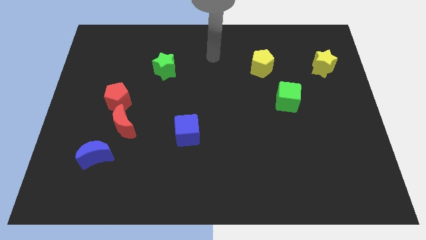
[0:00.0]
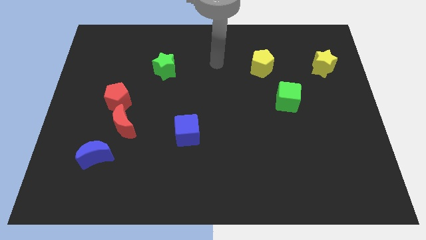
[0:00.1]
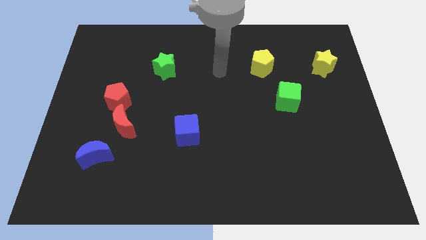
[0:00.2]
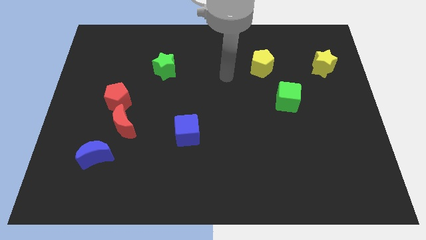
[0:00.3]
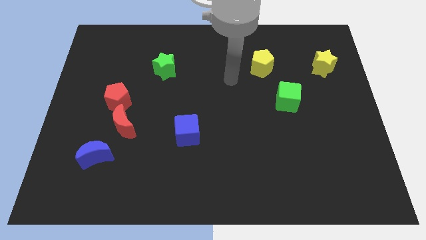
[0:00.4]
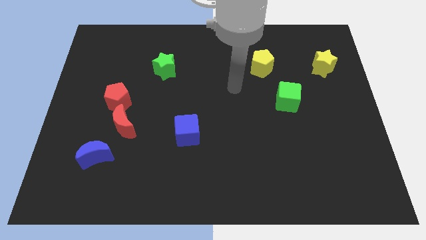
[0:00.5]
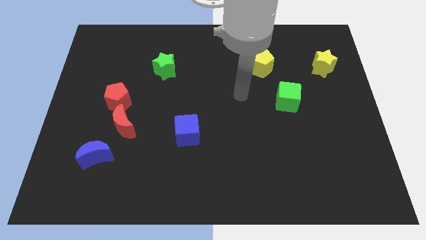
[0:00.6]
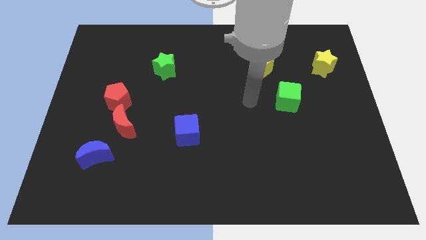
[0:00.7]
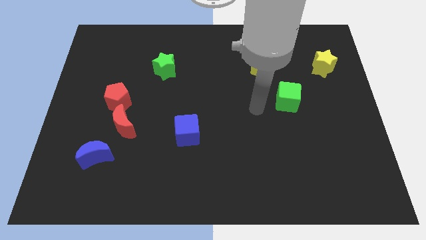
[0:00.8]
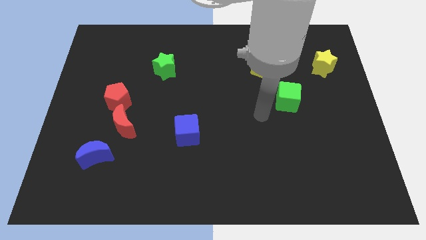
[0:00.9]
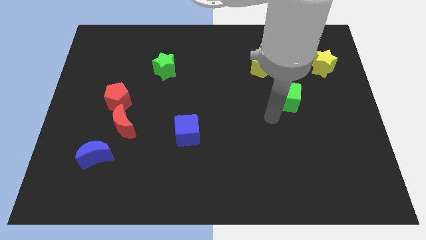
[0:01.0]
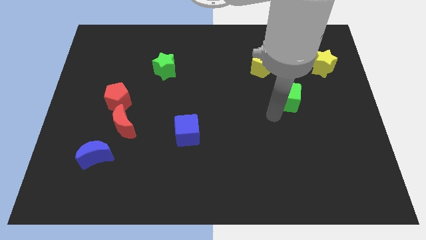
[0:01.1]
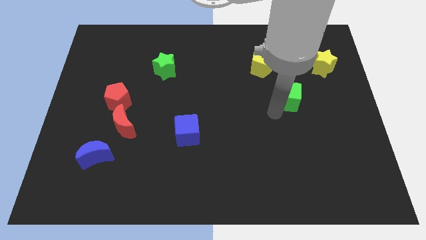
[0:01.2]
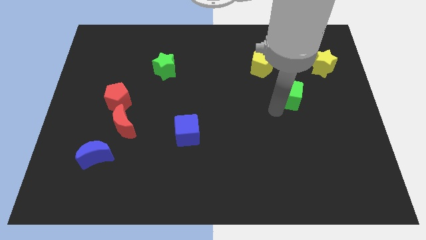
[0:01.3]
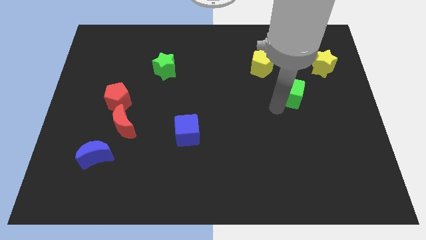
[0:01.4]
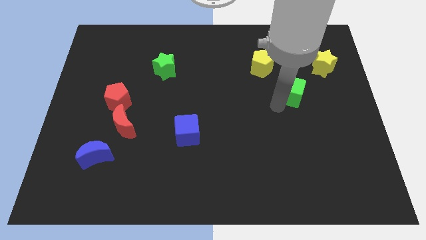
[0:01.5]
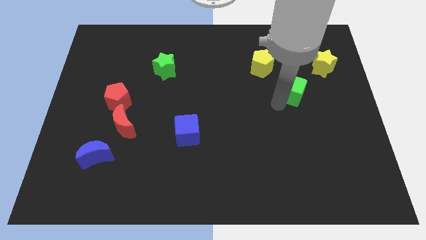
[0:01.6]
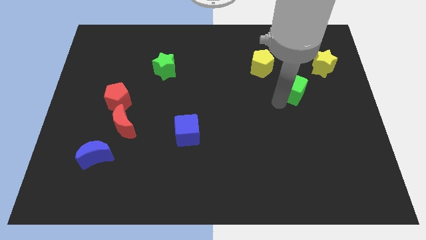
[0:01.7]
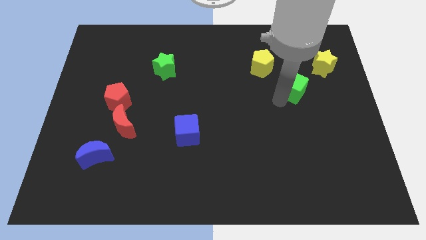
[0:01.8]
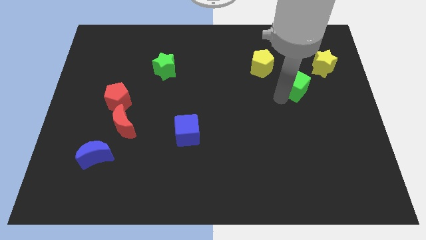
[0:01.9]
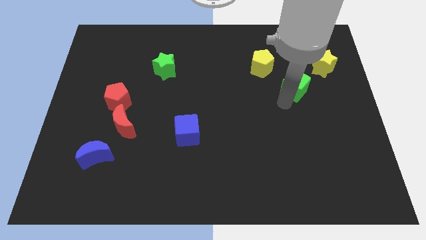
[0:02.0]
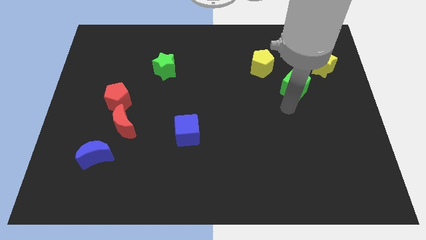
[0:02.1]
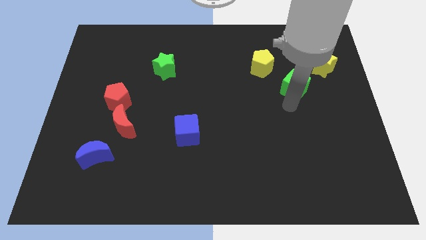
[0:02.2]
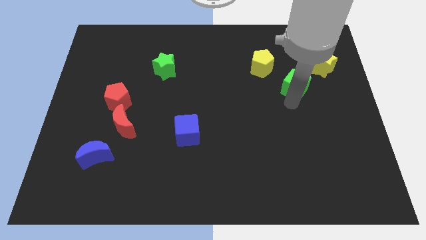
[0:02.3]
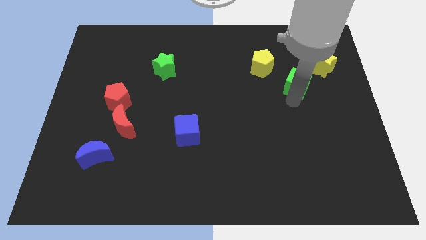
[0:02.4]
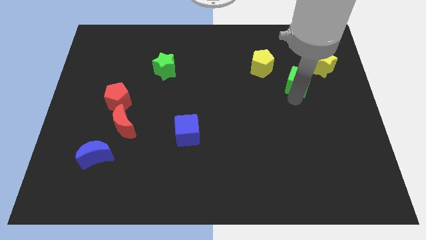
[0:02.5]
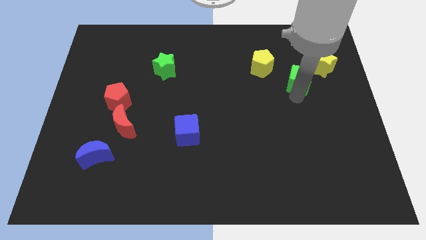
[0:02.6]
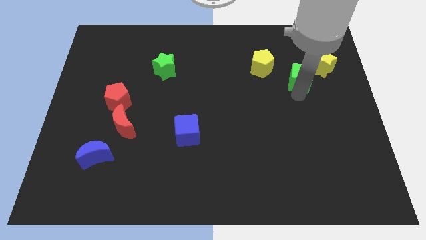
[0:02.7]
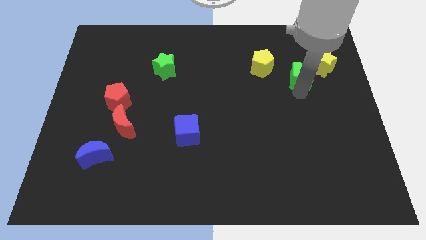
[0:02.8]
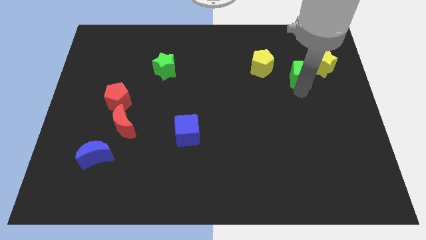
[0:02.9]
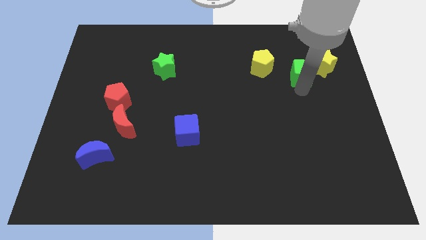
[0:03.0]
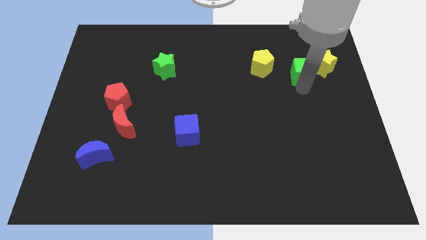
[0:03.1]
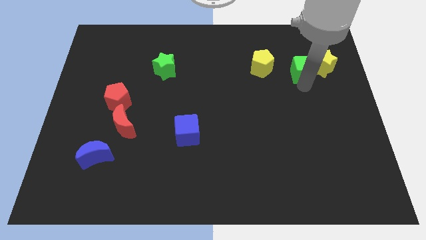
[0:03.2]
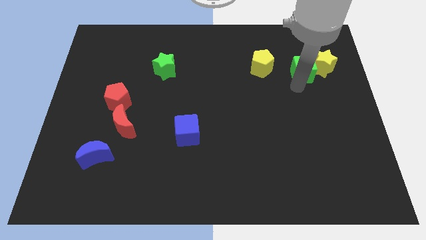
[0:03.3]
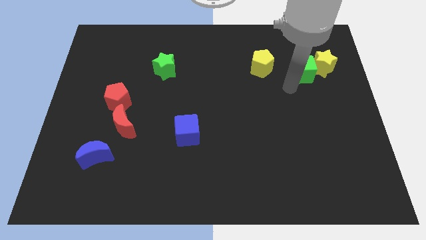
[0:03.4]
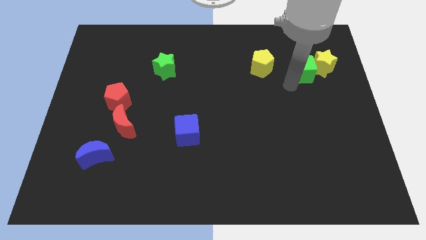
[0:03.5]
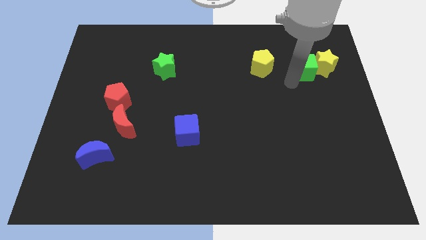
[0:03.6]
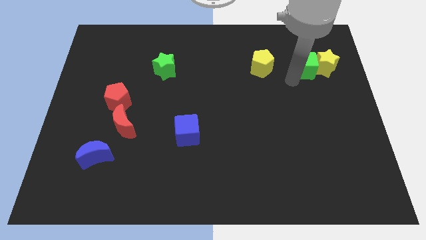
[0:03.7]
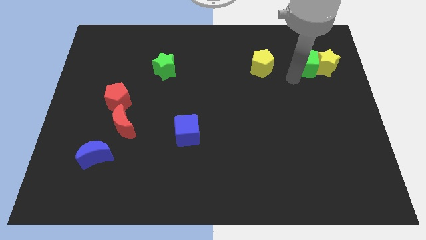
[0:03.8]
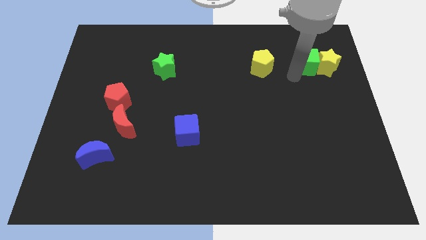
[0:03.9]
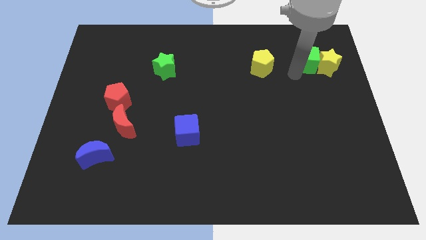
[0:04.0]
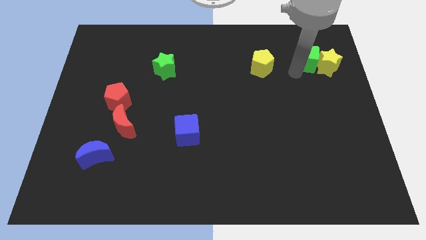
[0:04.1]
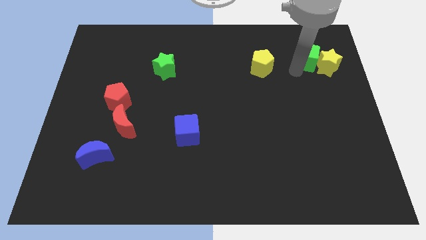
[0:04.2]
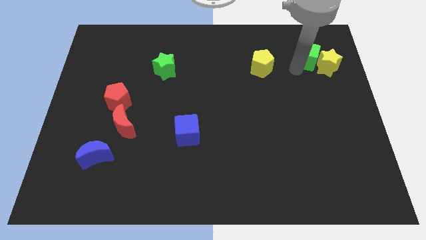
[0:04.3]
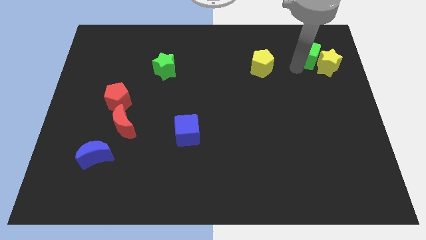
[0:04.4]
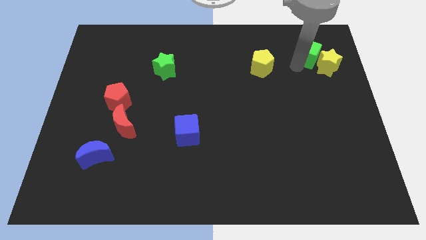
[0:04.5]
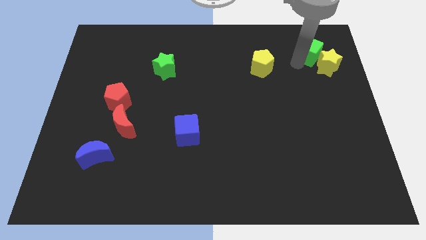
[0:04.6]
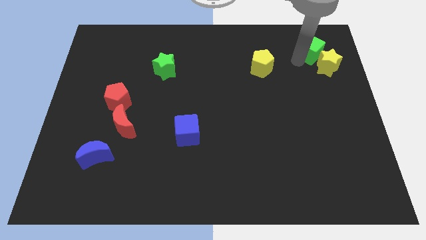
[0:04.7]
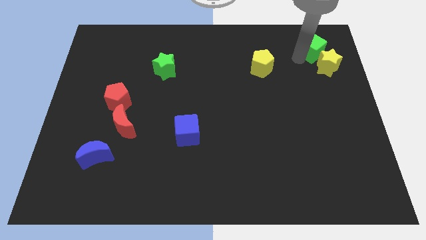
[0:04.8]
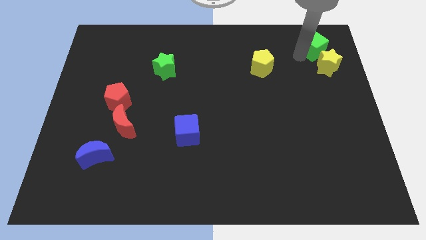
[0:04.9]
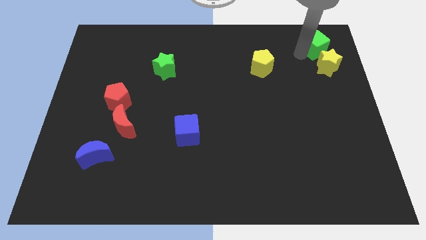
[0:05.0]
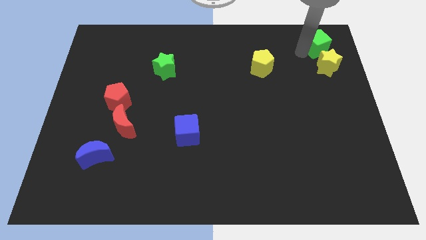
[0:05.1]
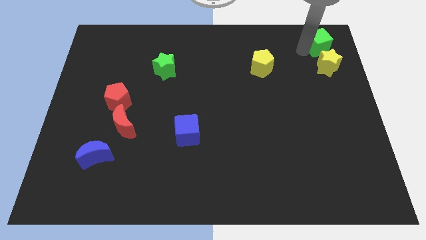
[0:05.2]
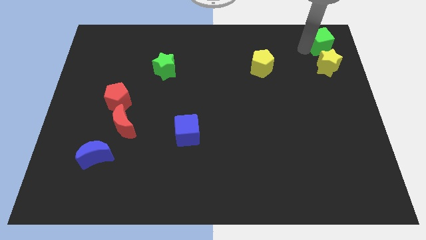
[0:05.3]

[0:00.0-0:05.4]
slide the green cube to the top right of the board
